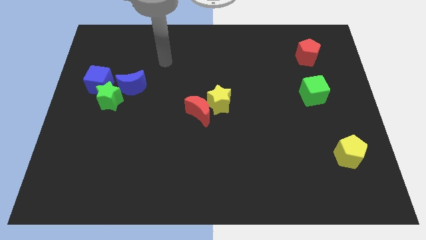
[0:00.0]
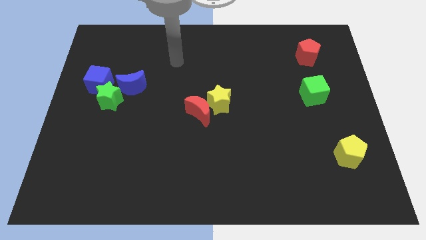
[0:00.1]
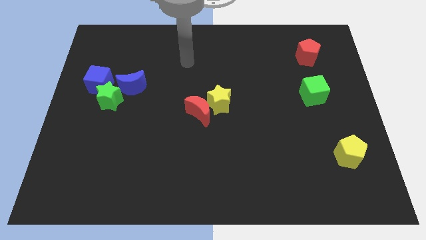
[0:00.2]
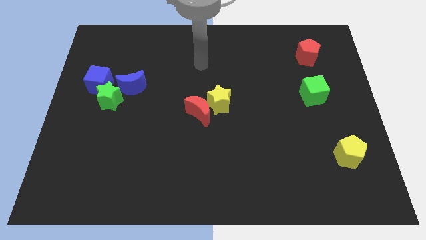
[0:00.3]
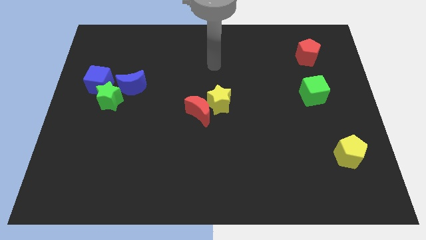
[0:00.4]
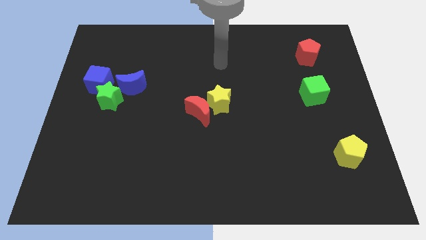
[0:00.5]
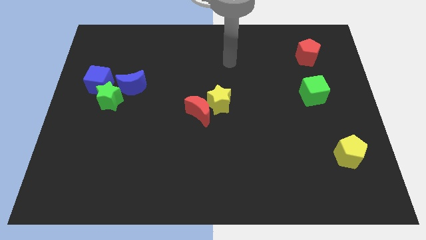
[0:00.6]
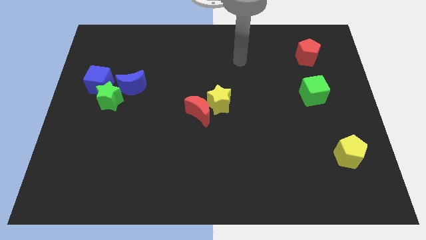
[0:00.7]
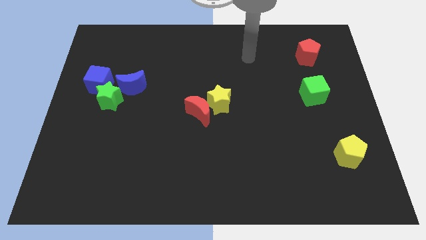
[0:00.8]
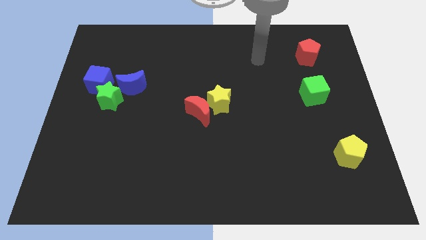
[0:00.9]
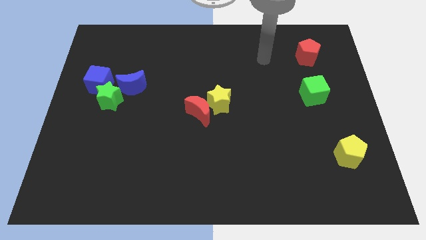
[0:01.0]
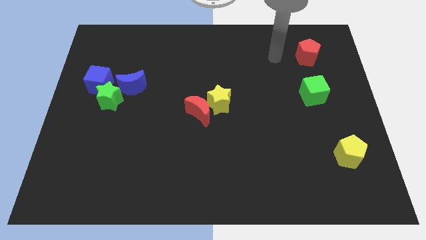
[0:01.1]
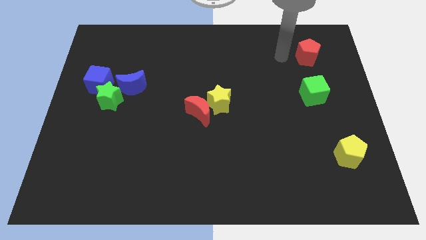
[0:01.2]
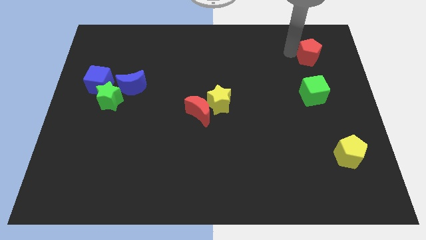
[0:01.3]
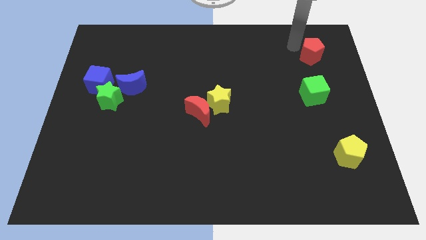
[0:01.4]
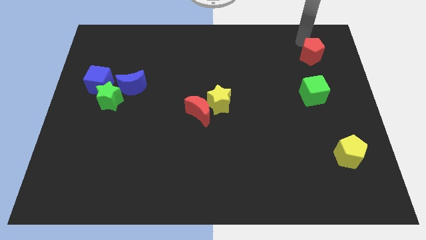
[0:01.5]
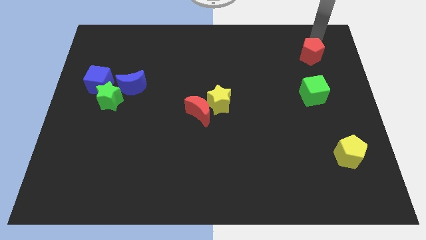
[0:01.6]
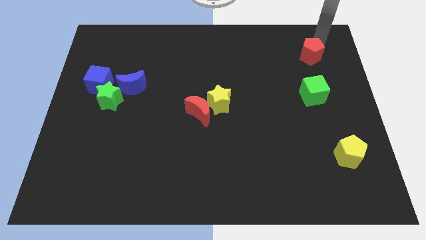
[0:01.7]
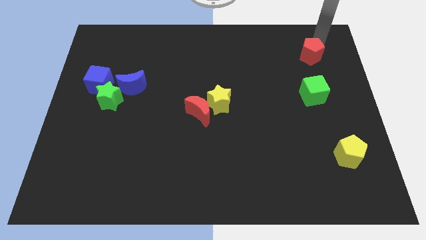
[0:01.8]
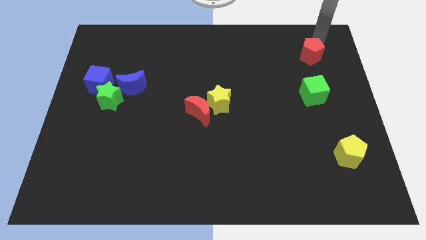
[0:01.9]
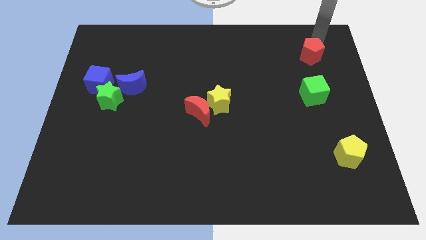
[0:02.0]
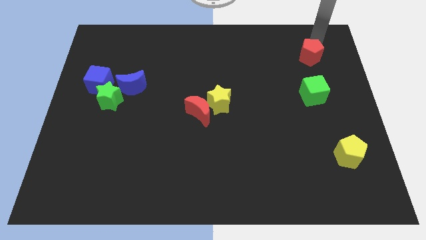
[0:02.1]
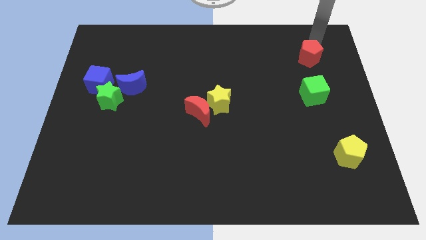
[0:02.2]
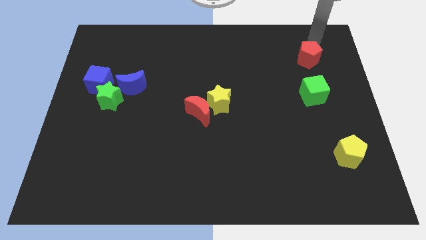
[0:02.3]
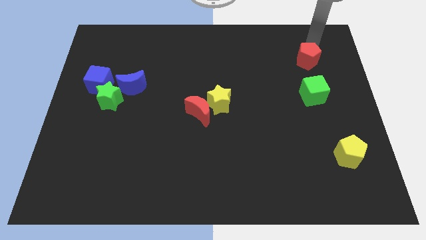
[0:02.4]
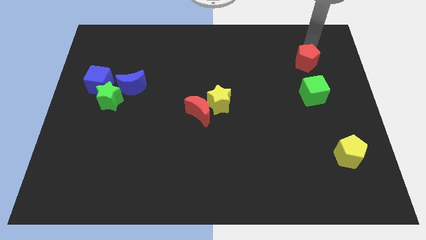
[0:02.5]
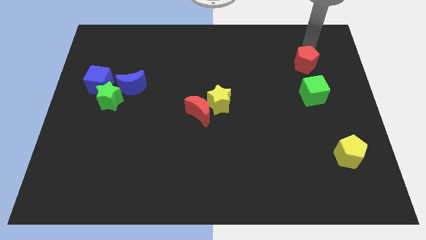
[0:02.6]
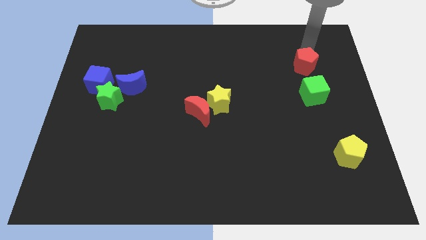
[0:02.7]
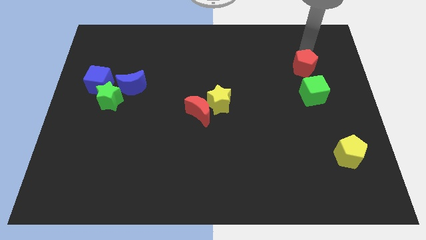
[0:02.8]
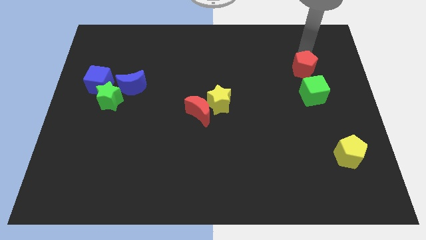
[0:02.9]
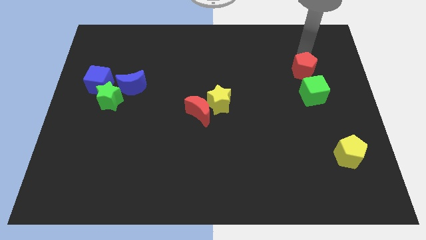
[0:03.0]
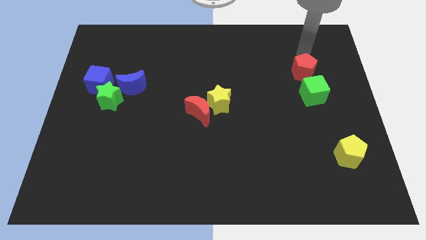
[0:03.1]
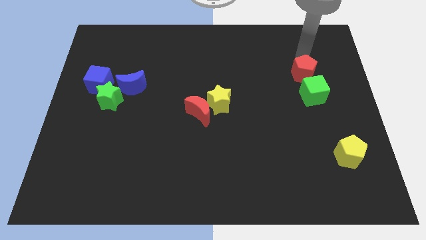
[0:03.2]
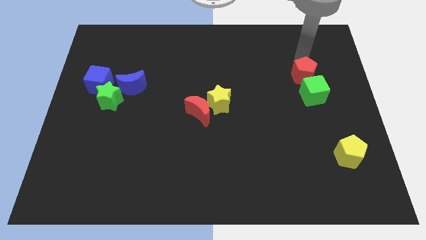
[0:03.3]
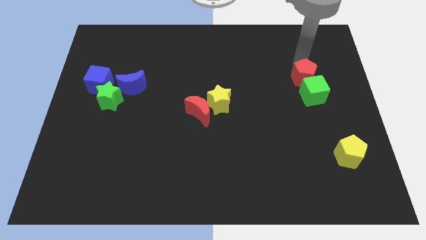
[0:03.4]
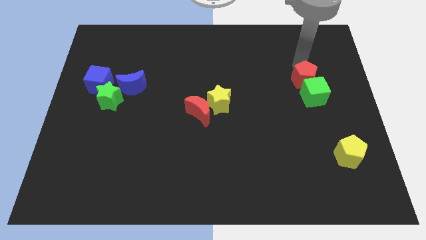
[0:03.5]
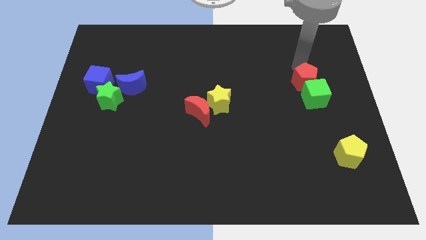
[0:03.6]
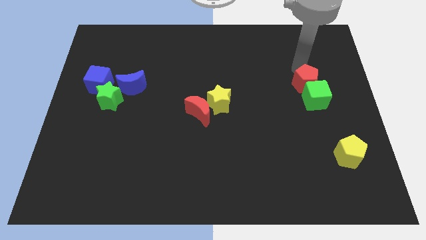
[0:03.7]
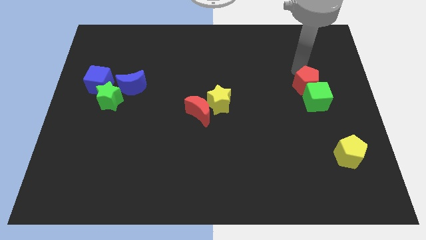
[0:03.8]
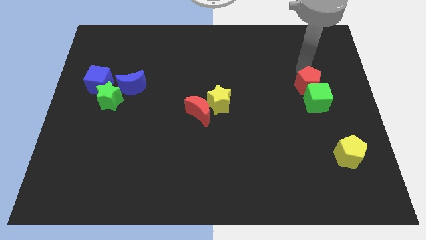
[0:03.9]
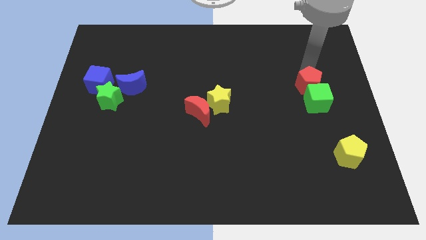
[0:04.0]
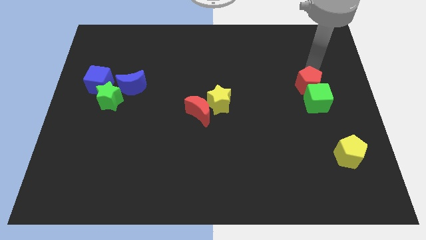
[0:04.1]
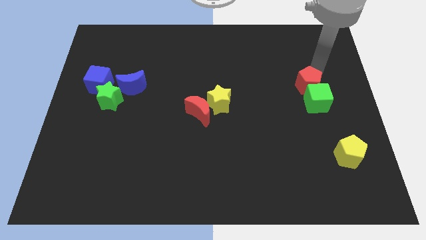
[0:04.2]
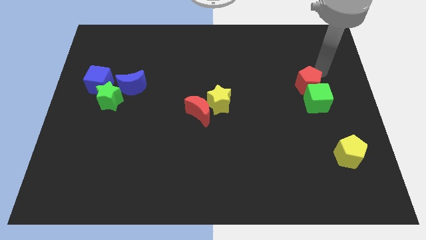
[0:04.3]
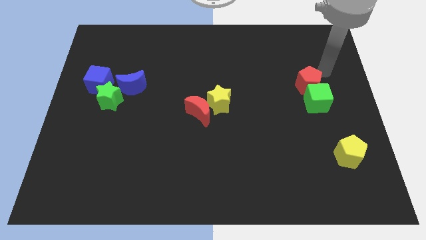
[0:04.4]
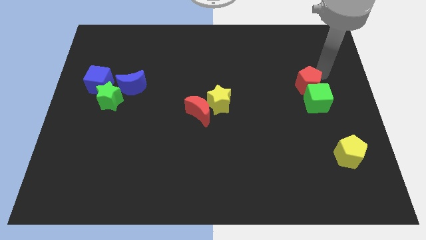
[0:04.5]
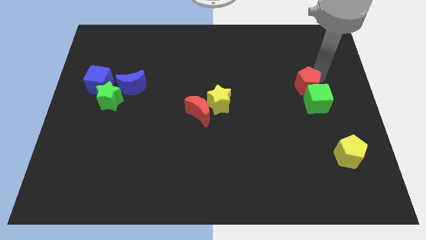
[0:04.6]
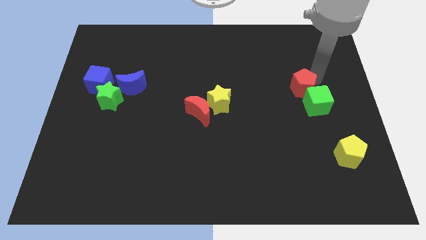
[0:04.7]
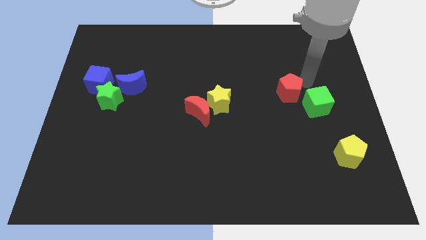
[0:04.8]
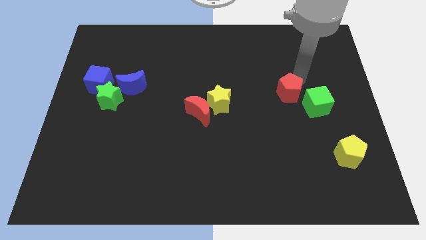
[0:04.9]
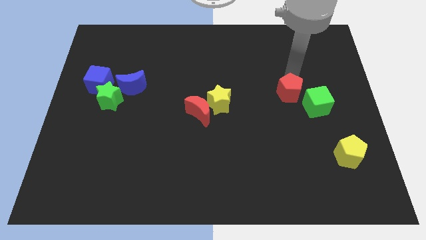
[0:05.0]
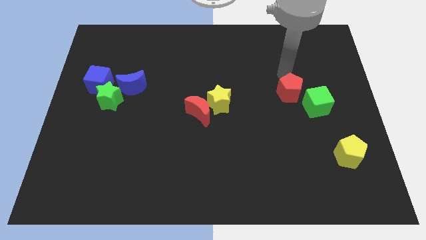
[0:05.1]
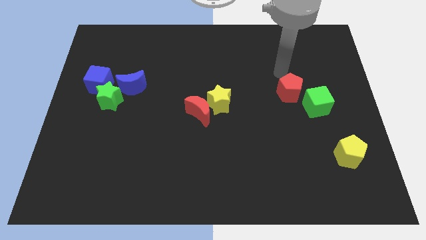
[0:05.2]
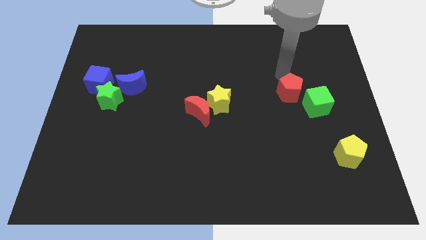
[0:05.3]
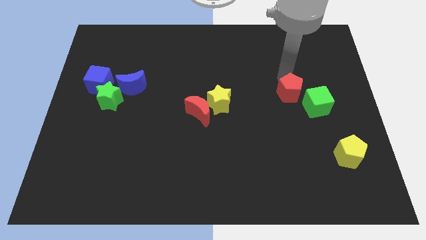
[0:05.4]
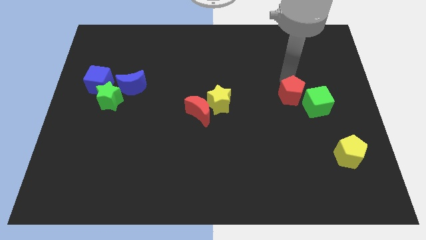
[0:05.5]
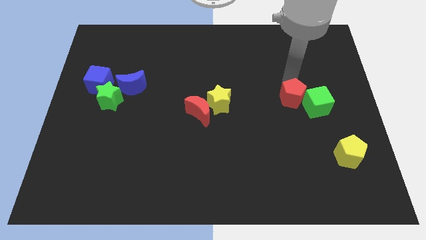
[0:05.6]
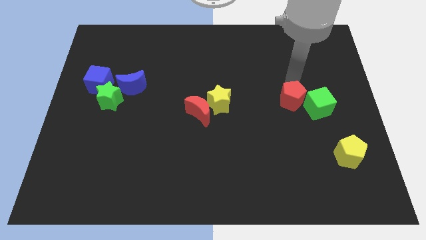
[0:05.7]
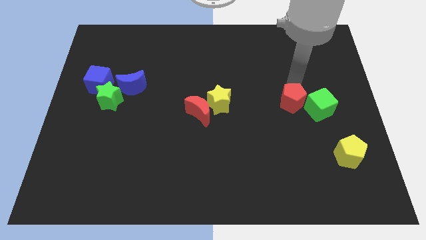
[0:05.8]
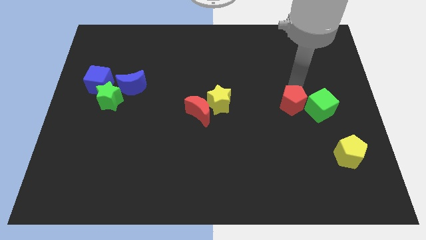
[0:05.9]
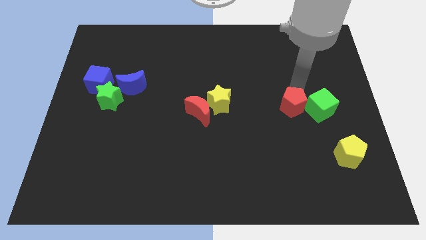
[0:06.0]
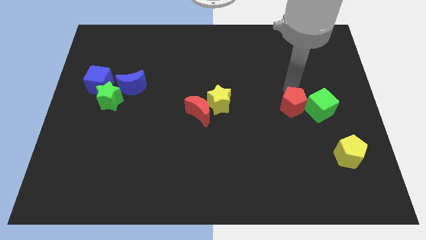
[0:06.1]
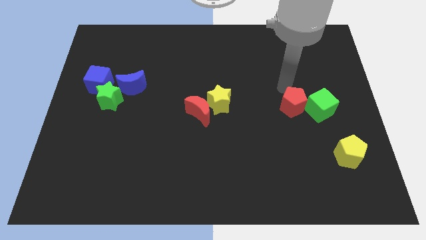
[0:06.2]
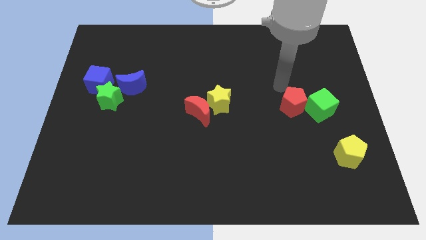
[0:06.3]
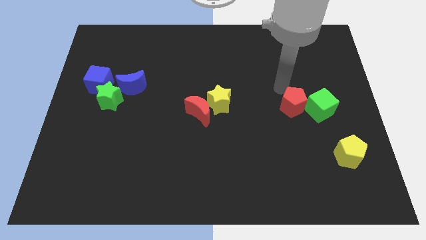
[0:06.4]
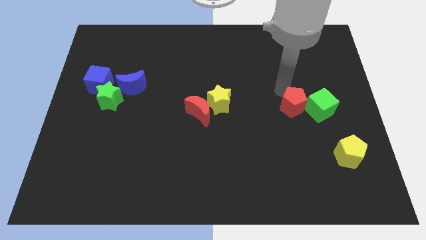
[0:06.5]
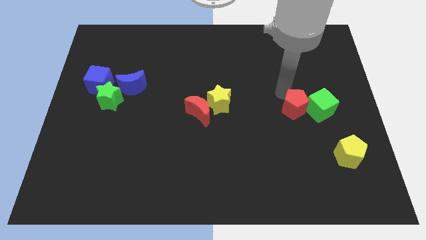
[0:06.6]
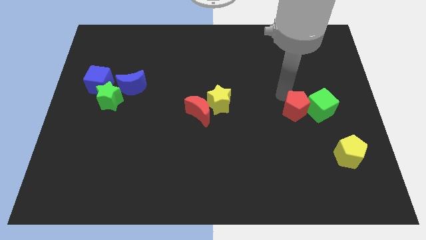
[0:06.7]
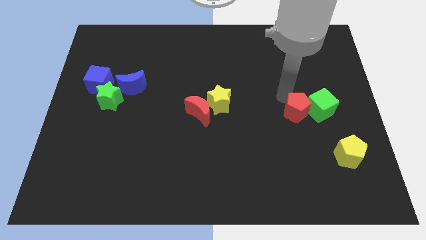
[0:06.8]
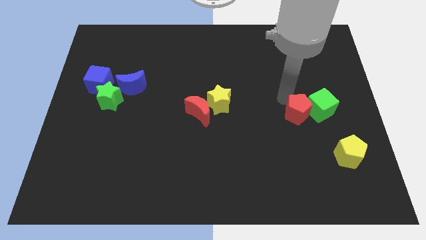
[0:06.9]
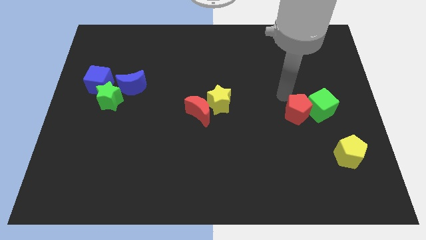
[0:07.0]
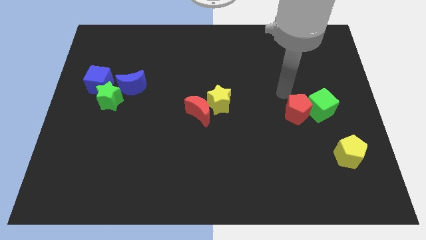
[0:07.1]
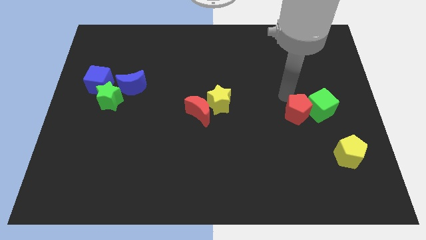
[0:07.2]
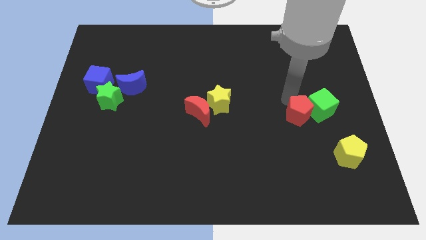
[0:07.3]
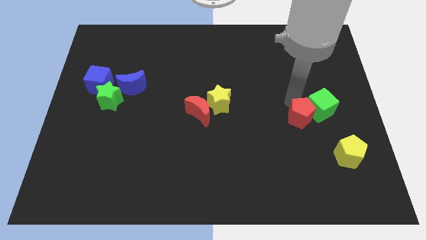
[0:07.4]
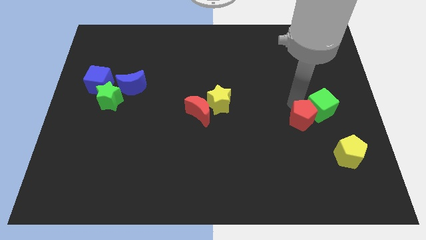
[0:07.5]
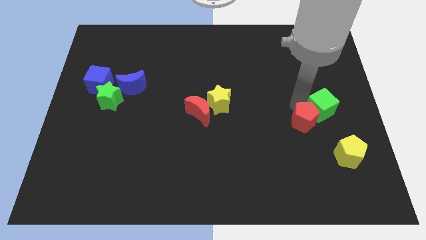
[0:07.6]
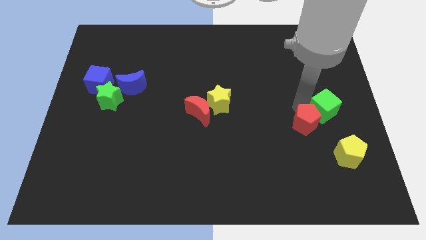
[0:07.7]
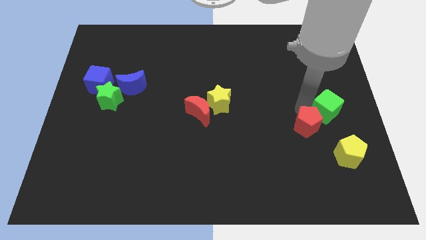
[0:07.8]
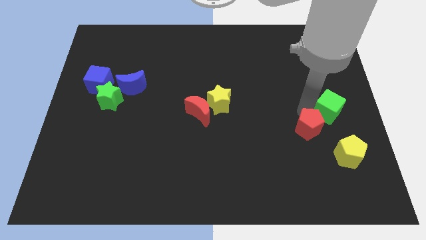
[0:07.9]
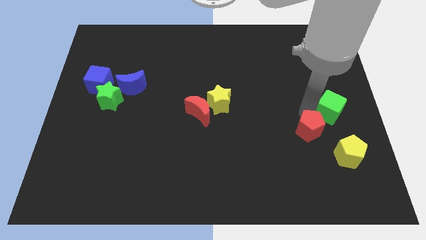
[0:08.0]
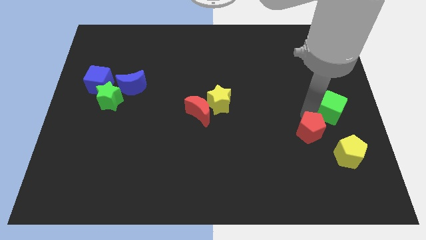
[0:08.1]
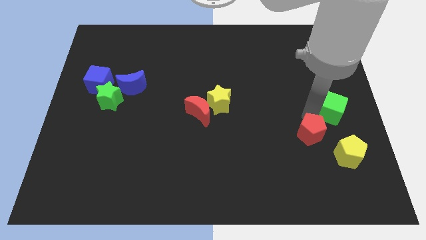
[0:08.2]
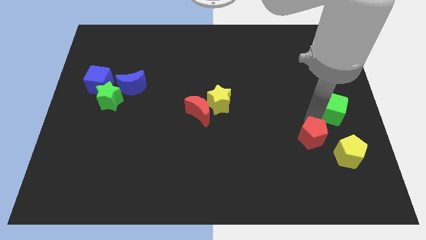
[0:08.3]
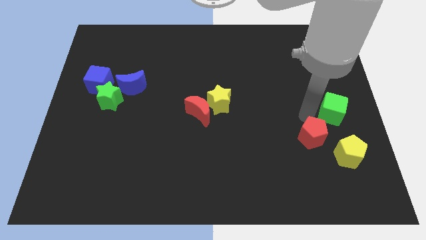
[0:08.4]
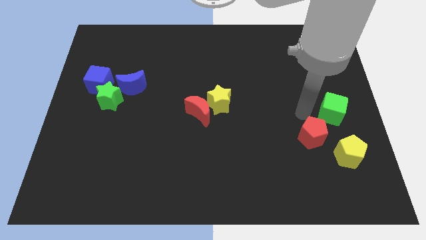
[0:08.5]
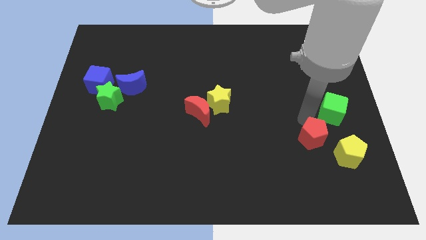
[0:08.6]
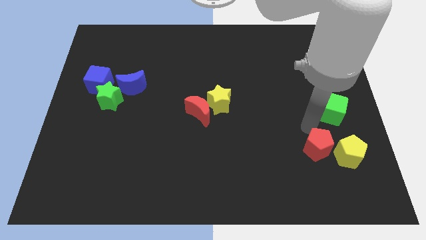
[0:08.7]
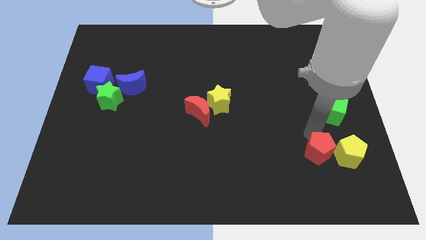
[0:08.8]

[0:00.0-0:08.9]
push the red pentagon to the bottom left side of the yellow pentagon
